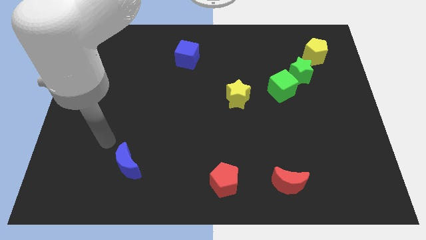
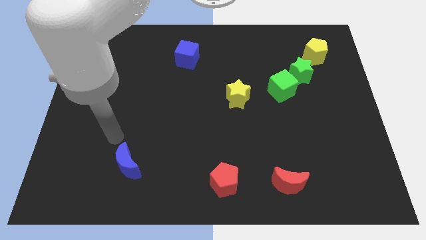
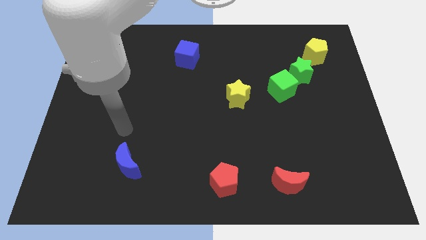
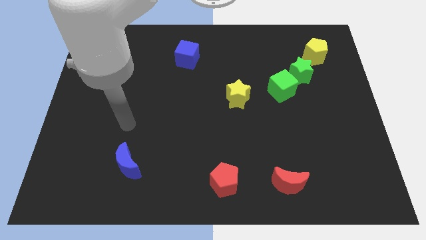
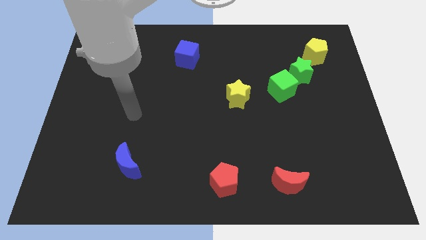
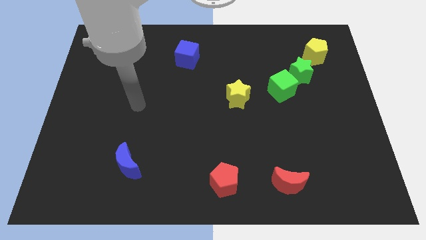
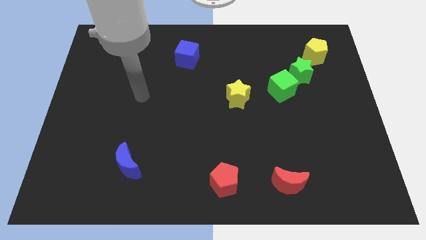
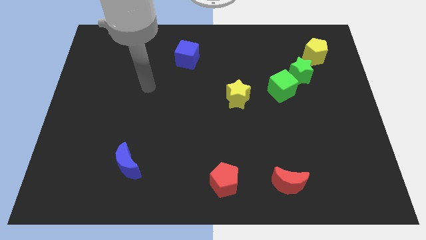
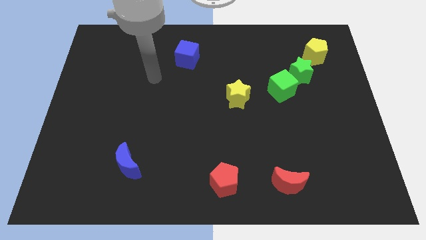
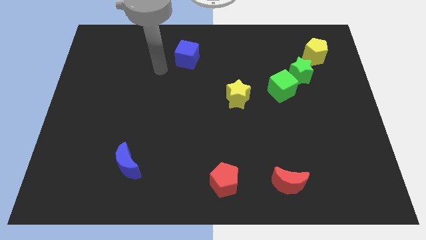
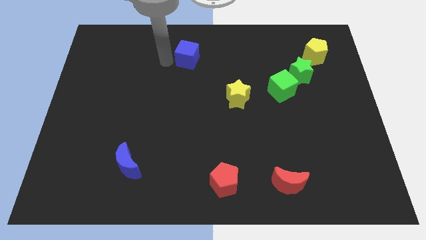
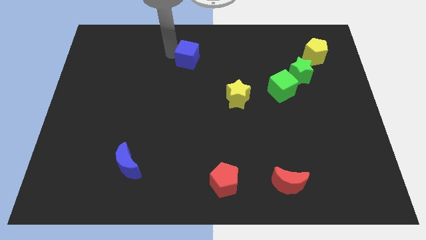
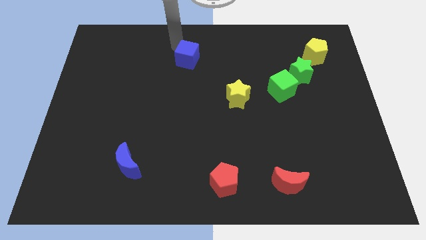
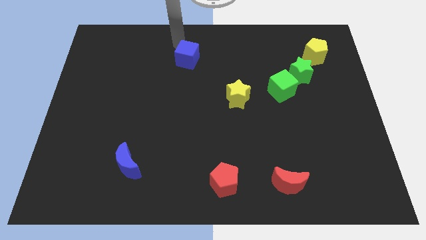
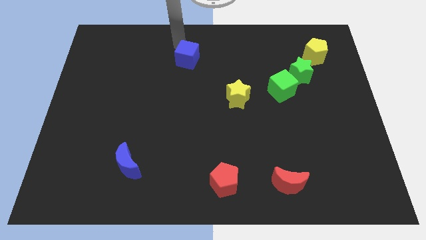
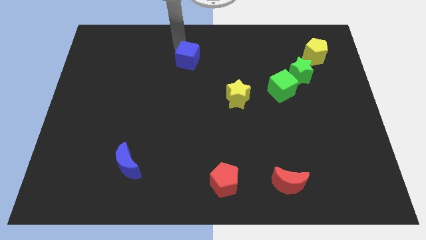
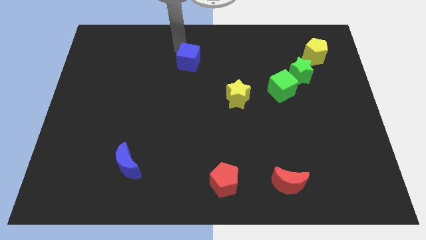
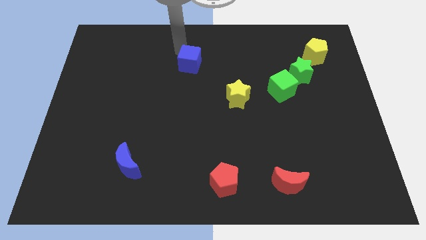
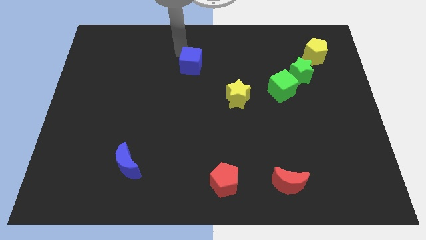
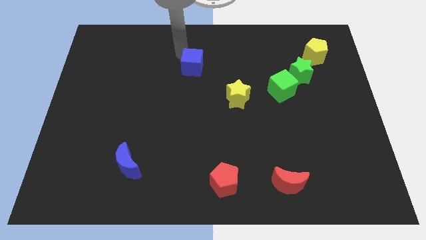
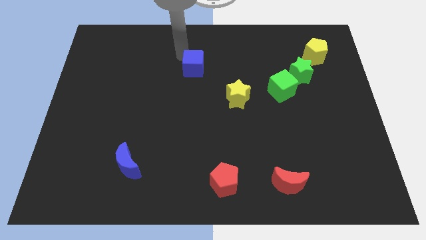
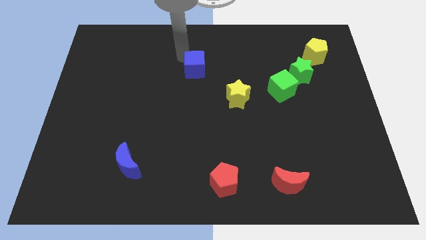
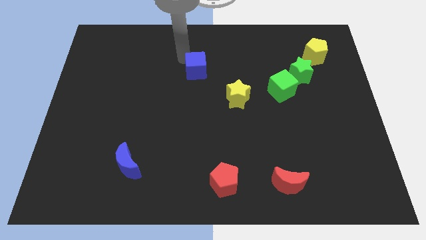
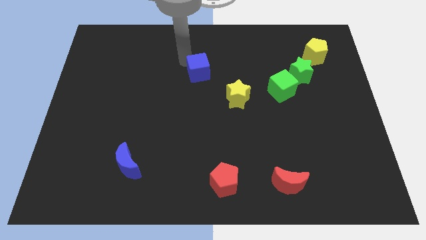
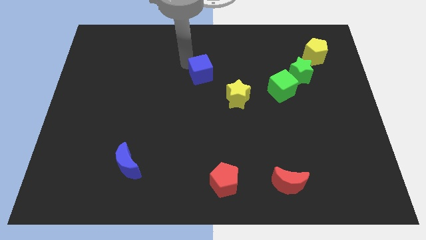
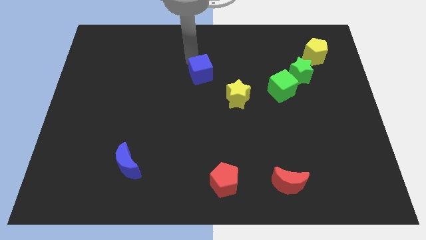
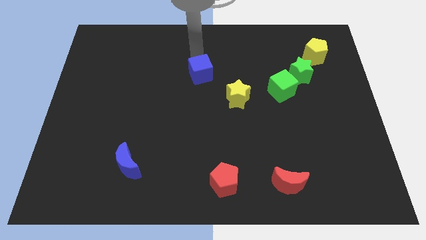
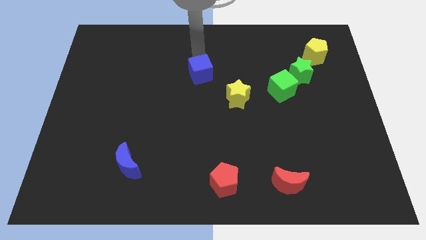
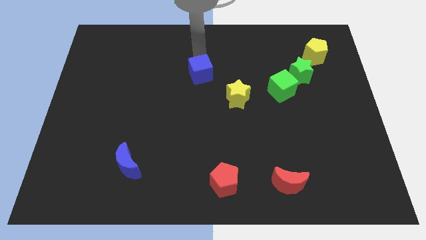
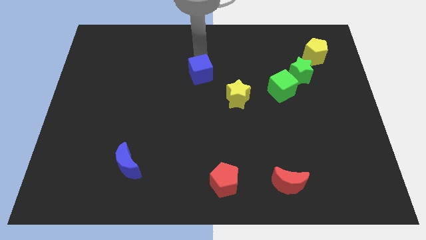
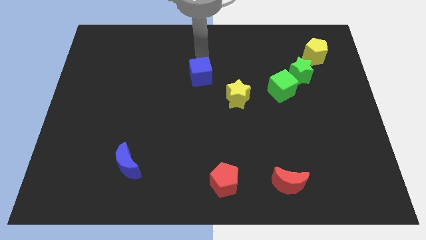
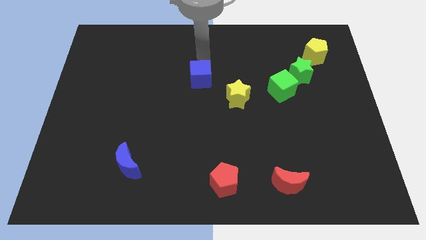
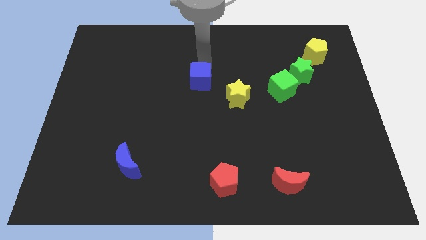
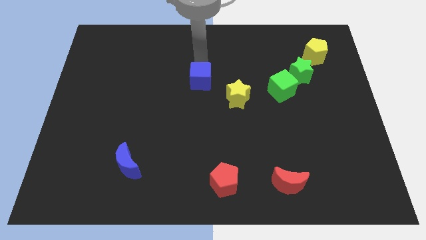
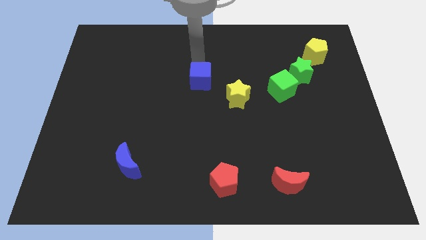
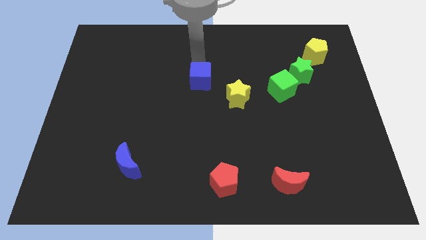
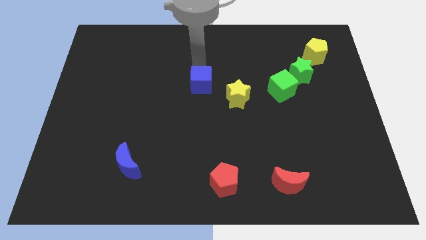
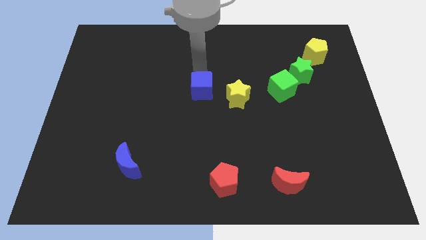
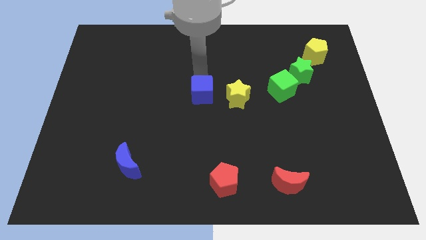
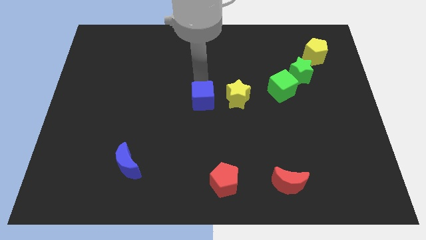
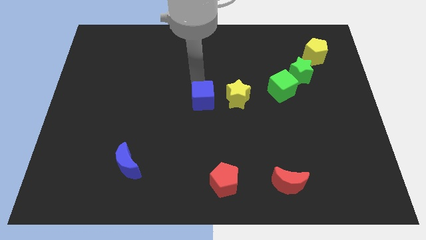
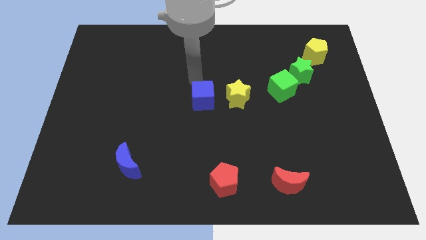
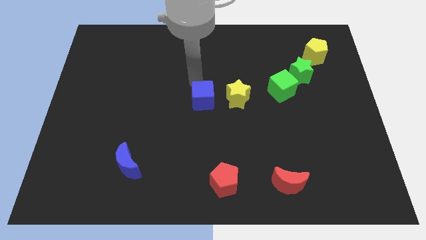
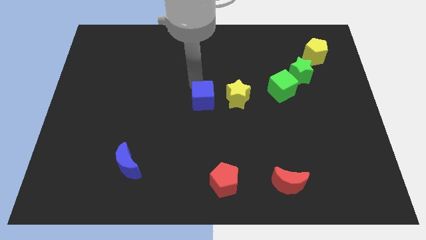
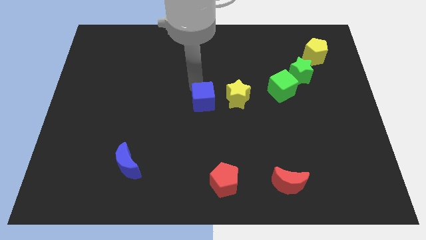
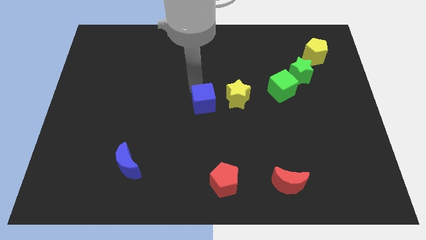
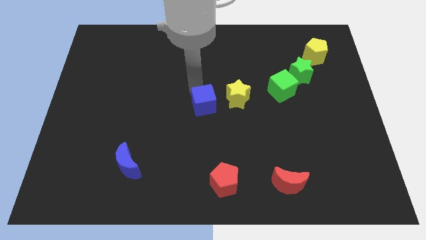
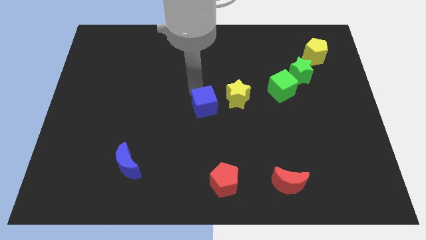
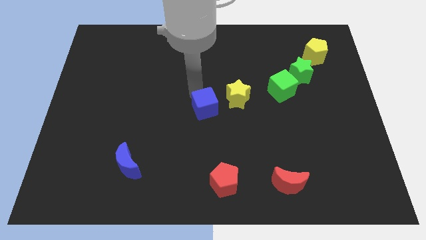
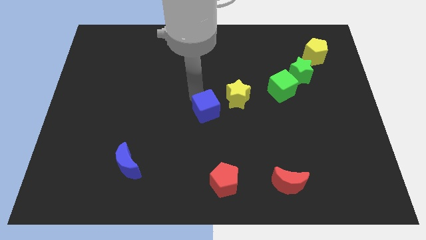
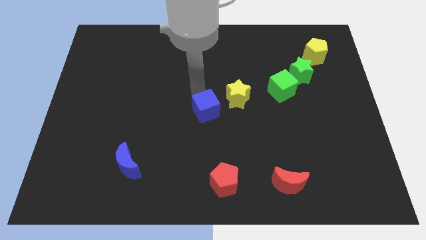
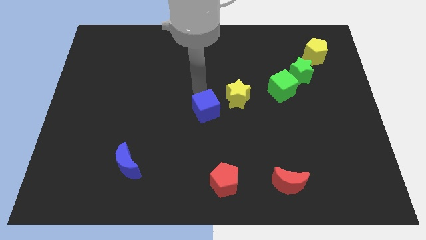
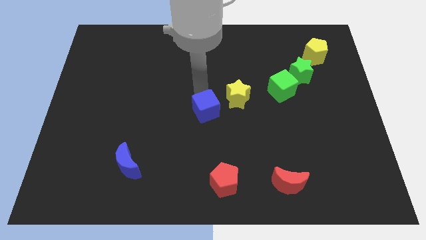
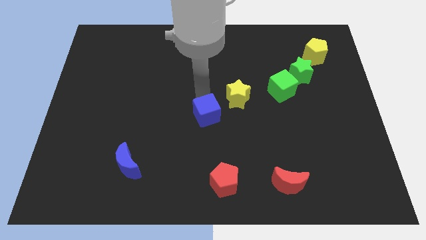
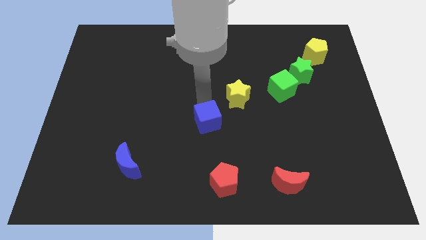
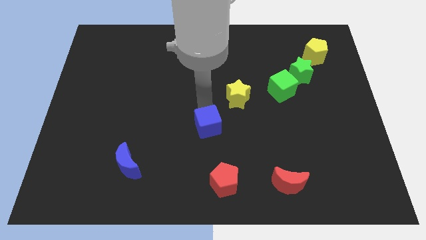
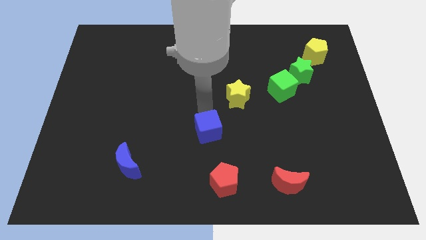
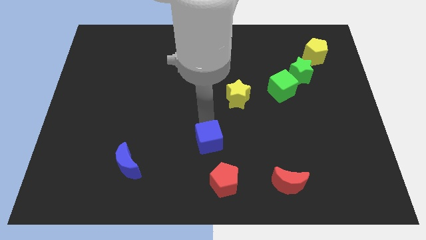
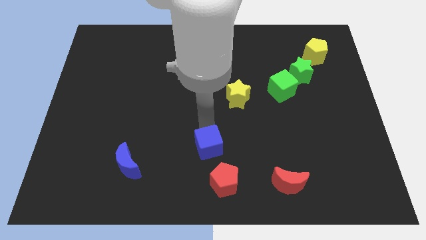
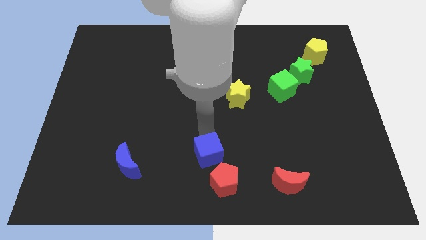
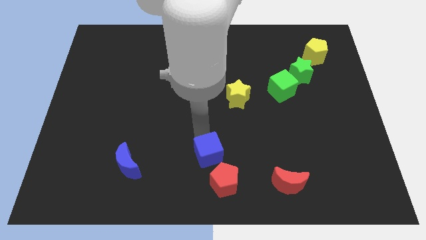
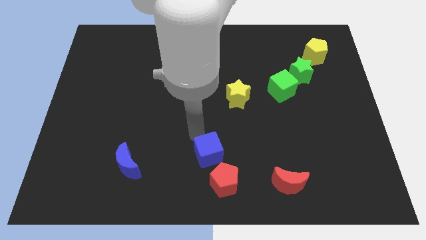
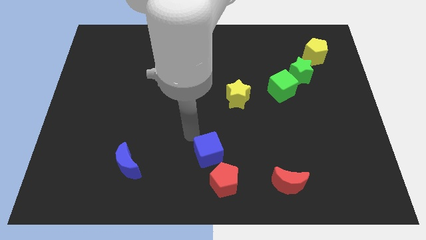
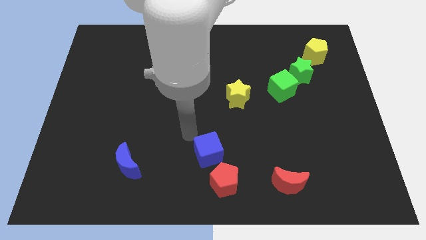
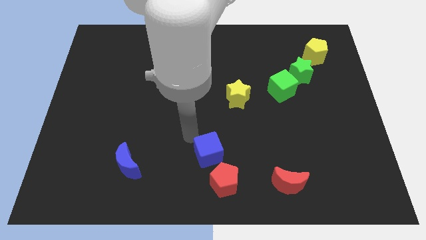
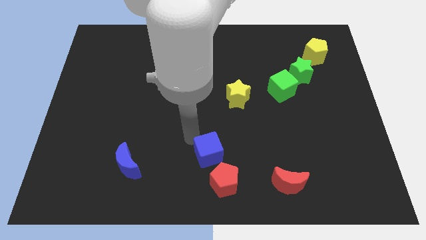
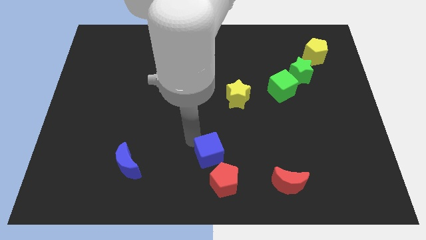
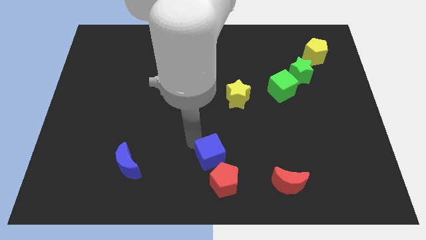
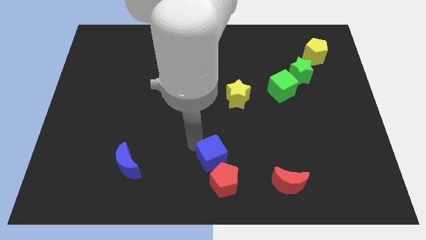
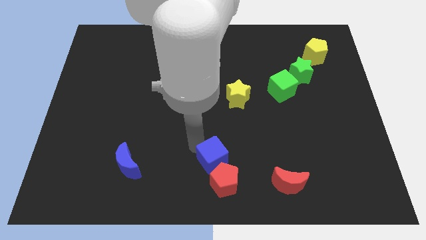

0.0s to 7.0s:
push the blue cube close to the red pentagon
